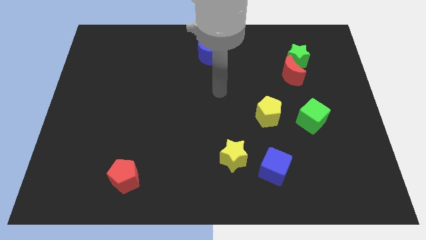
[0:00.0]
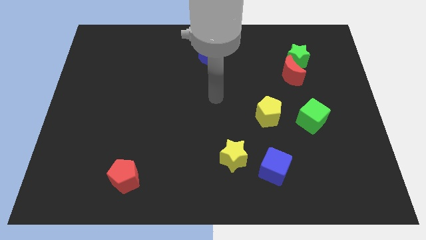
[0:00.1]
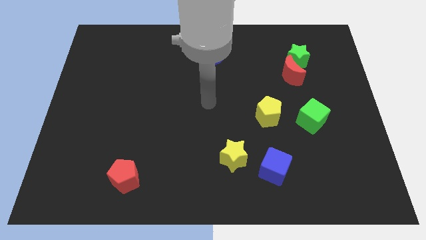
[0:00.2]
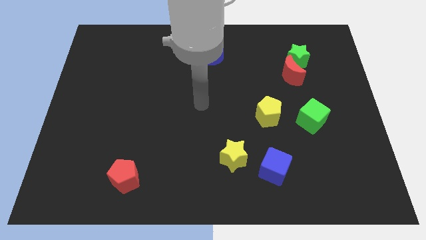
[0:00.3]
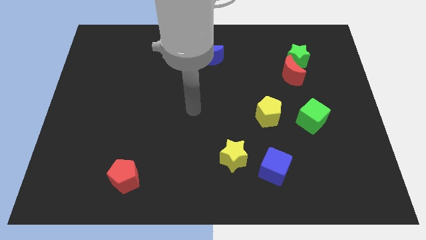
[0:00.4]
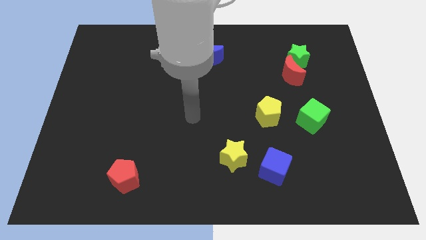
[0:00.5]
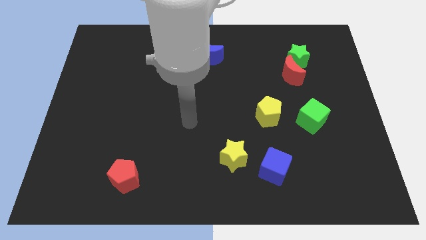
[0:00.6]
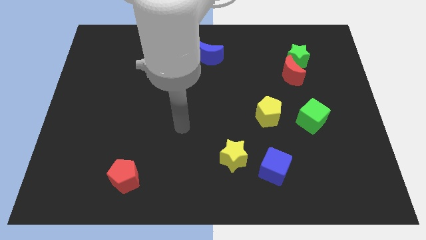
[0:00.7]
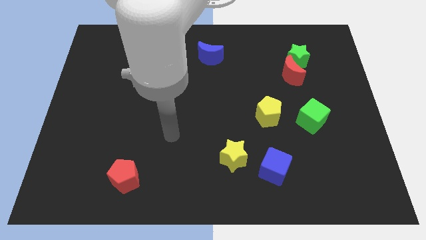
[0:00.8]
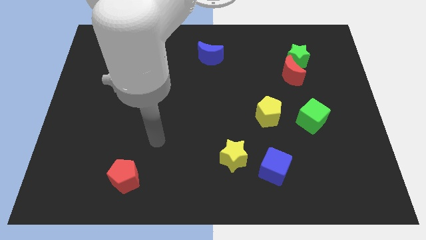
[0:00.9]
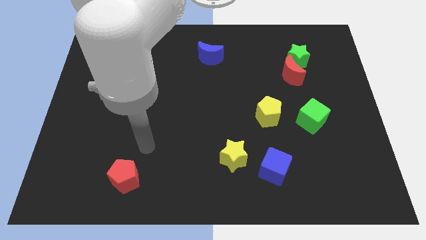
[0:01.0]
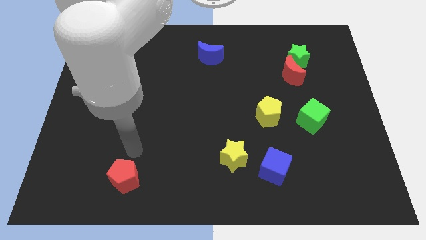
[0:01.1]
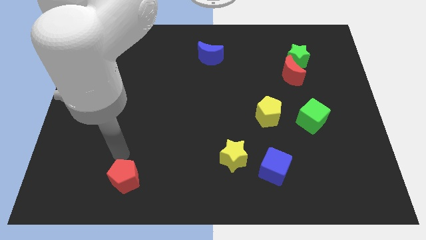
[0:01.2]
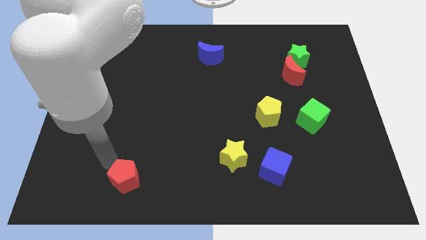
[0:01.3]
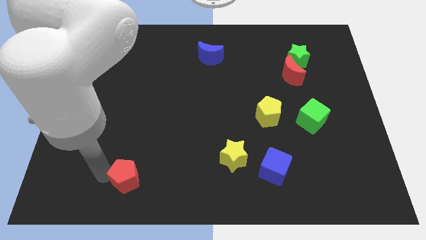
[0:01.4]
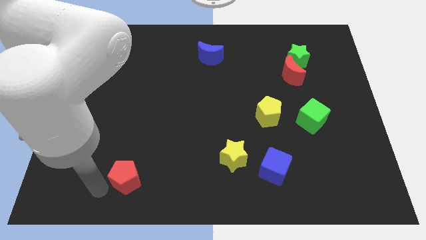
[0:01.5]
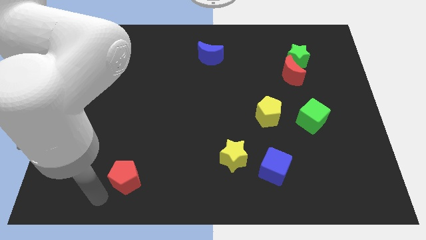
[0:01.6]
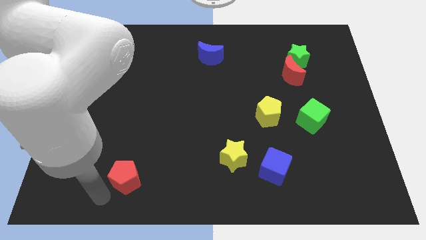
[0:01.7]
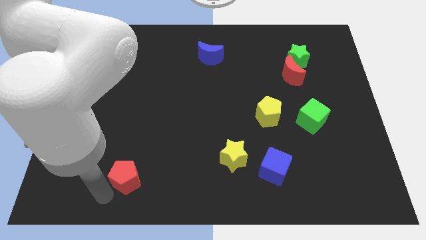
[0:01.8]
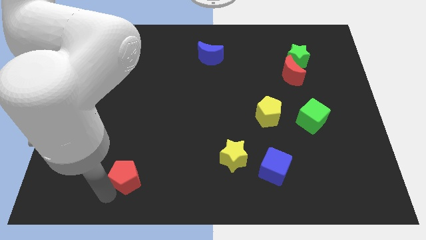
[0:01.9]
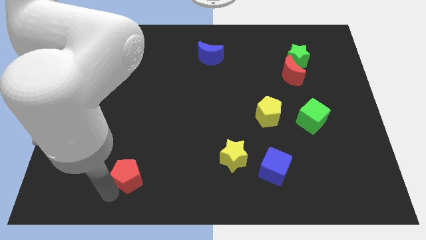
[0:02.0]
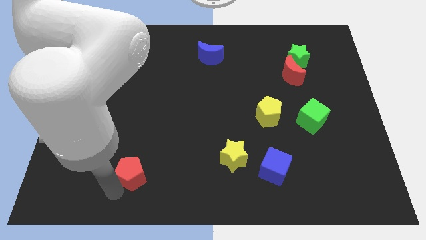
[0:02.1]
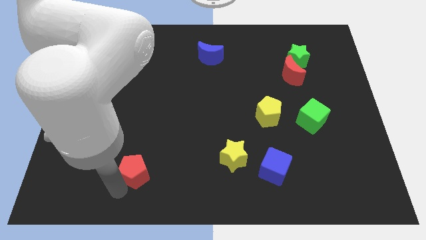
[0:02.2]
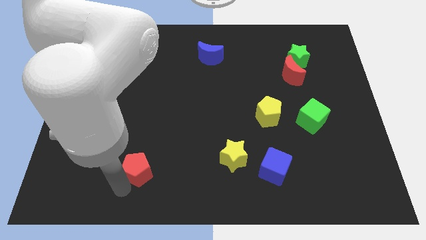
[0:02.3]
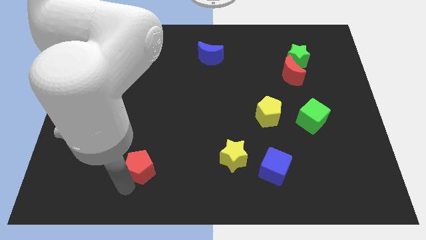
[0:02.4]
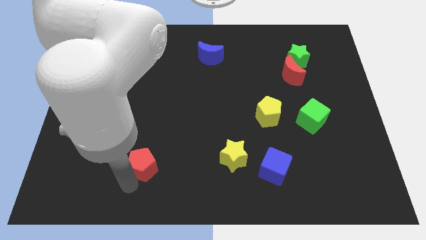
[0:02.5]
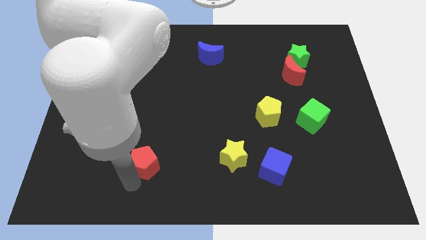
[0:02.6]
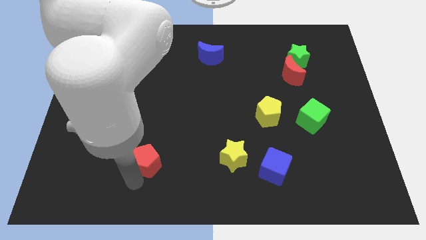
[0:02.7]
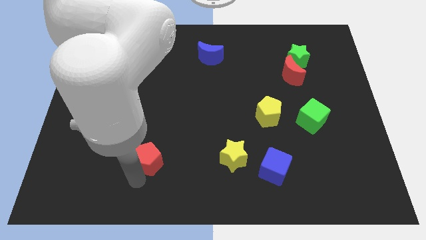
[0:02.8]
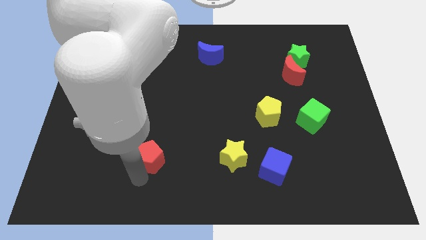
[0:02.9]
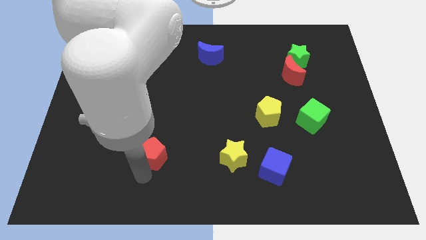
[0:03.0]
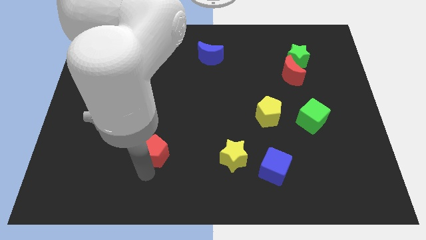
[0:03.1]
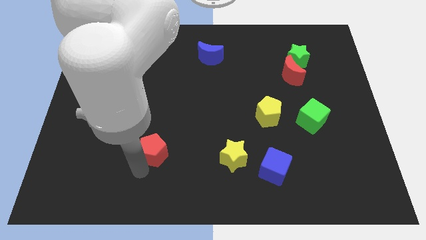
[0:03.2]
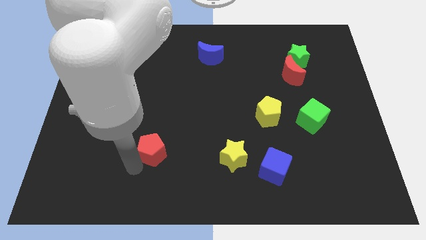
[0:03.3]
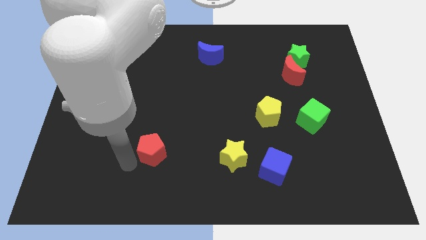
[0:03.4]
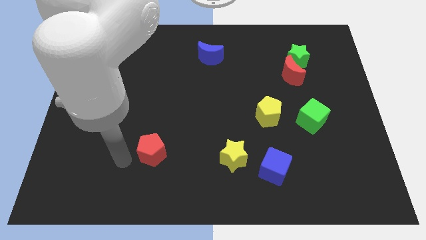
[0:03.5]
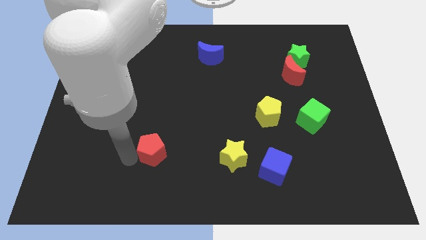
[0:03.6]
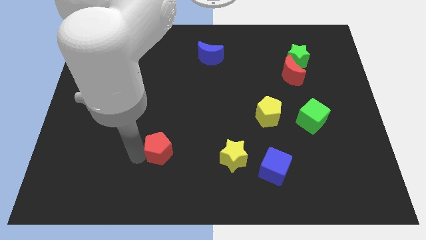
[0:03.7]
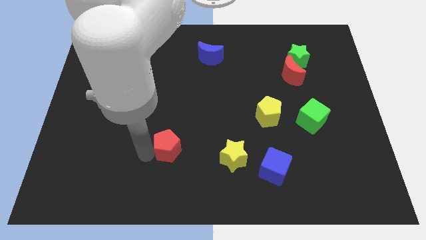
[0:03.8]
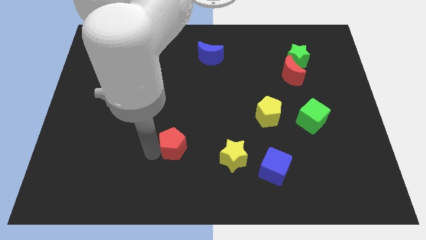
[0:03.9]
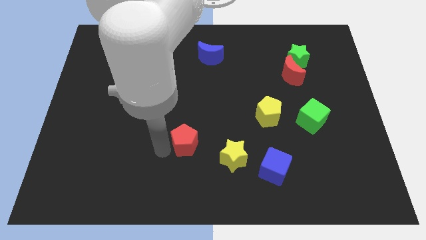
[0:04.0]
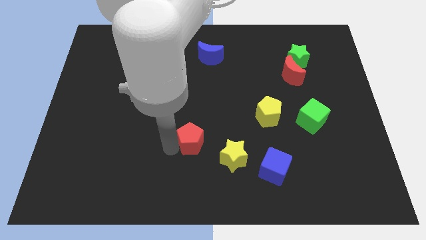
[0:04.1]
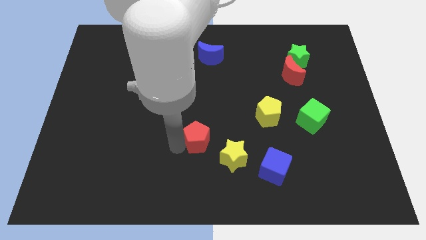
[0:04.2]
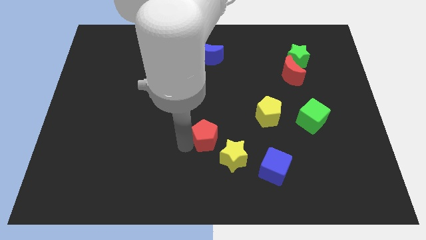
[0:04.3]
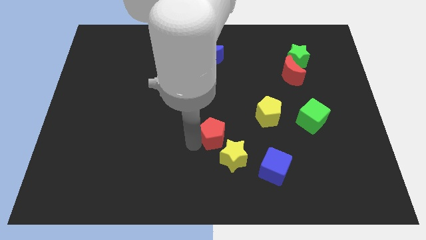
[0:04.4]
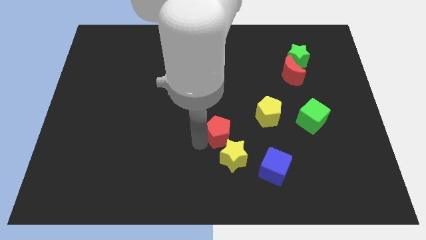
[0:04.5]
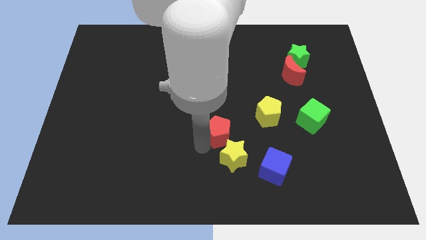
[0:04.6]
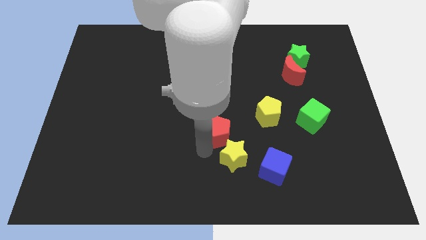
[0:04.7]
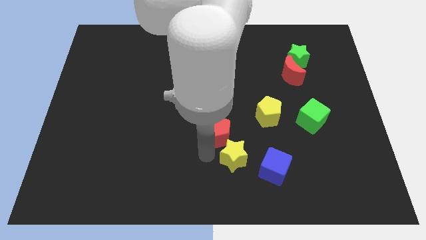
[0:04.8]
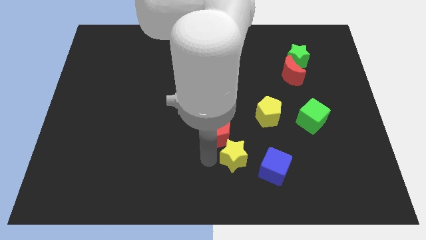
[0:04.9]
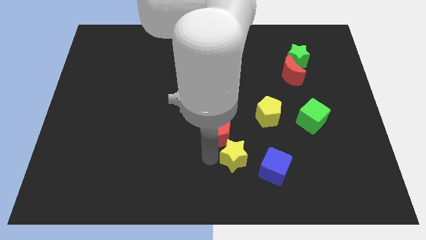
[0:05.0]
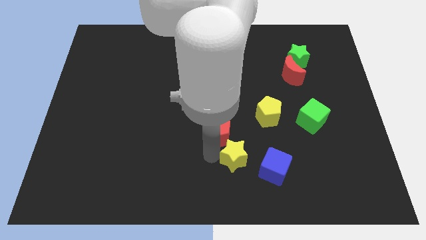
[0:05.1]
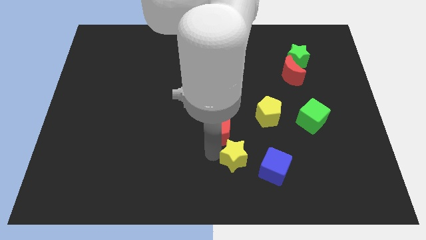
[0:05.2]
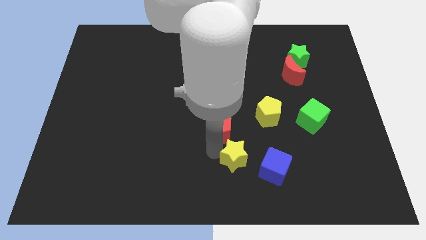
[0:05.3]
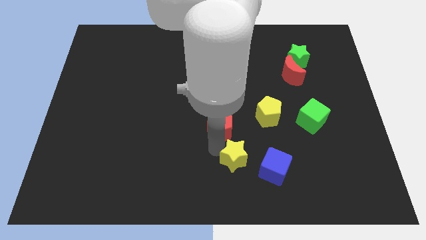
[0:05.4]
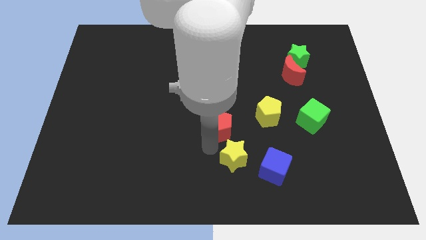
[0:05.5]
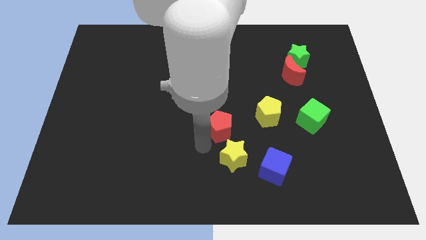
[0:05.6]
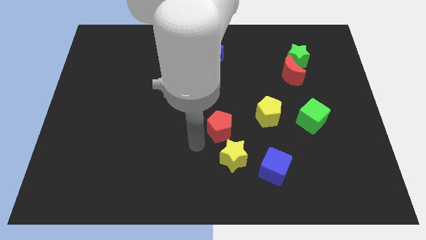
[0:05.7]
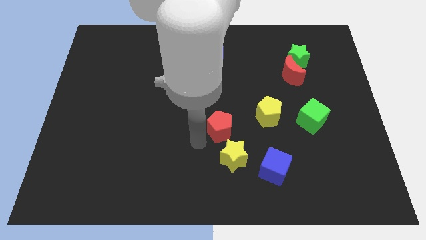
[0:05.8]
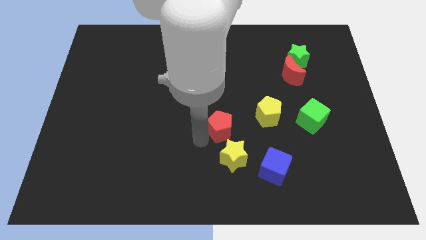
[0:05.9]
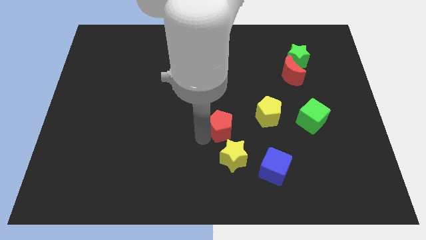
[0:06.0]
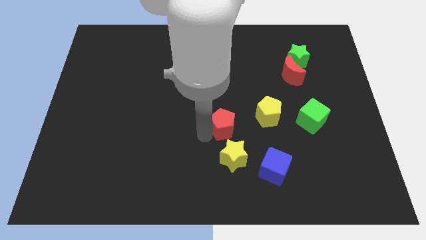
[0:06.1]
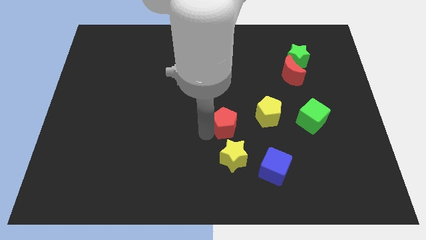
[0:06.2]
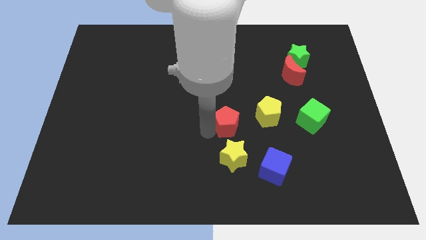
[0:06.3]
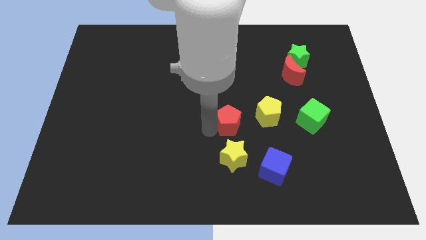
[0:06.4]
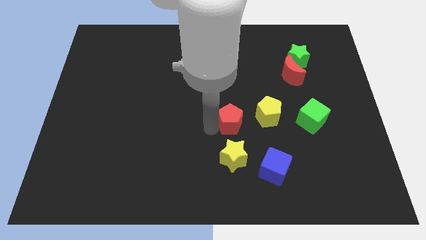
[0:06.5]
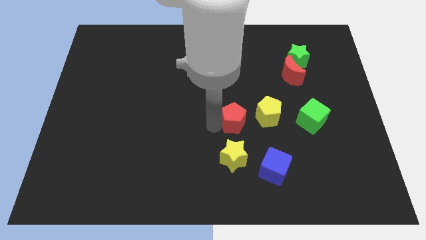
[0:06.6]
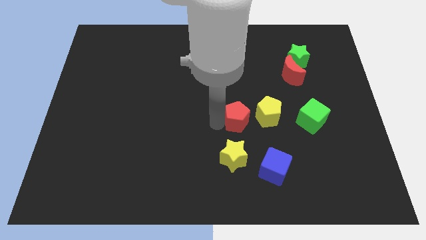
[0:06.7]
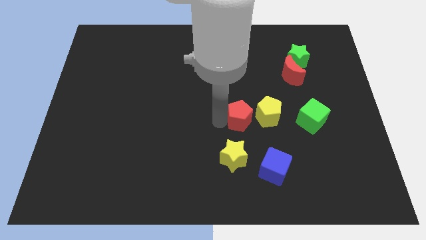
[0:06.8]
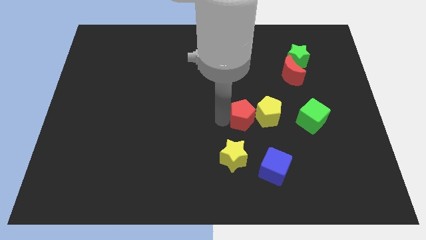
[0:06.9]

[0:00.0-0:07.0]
move the red pentagon left of the green cube

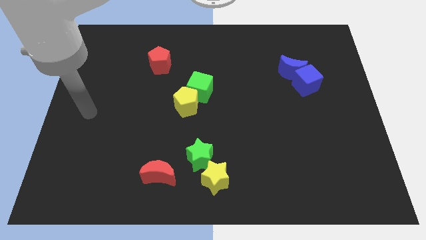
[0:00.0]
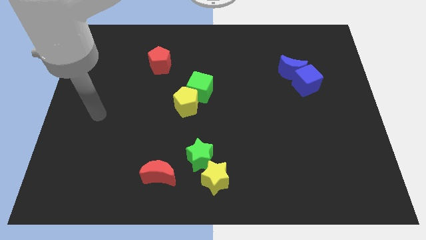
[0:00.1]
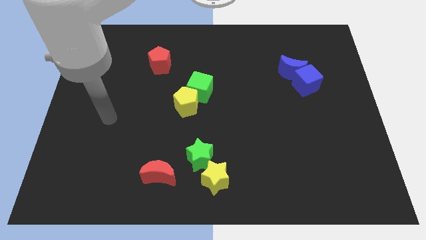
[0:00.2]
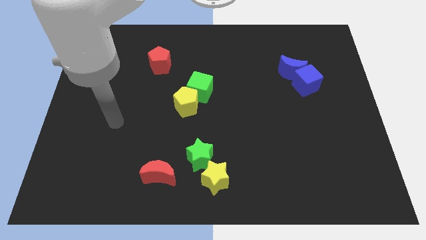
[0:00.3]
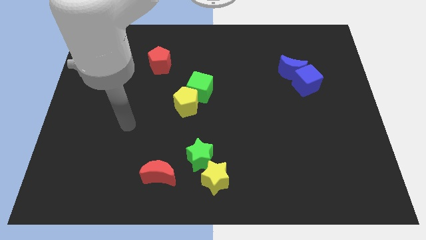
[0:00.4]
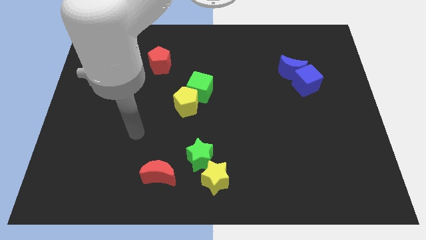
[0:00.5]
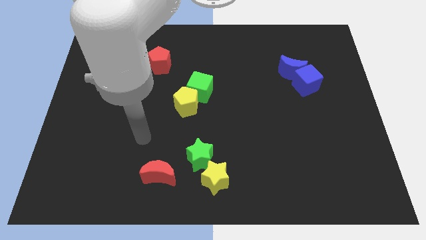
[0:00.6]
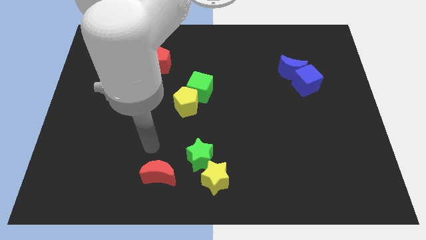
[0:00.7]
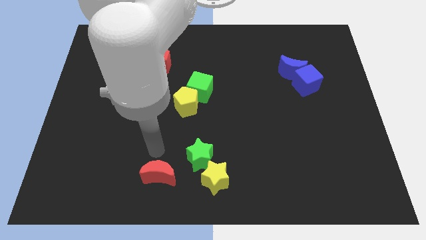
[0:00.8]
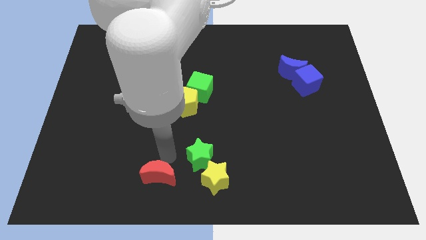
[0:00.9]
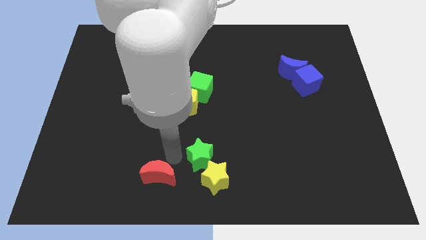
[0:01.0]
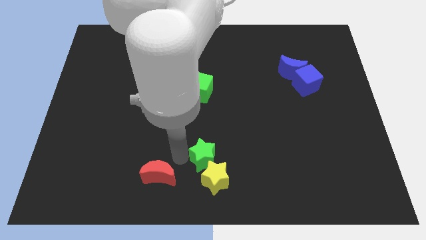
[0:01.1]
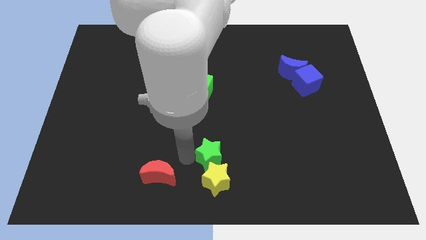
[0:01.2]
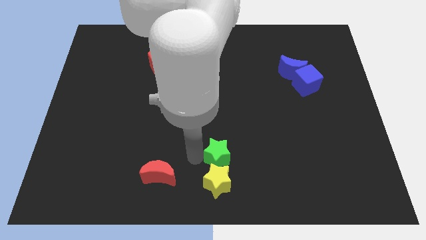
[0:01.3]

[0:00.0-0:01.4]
slide the green star to the top right of the yellow star
